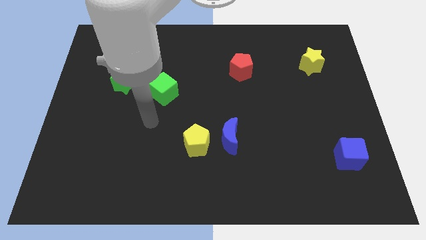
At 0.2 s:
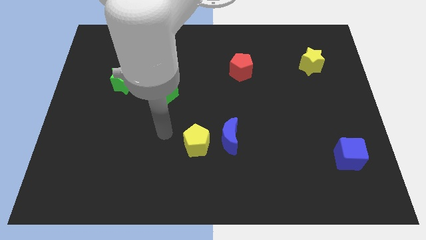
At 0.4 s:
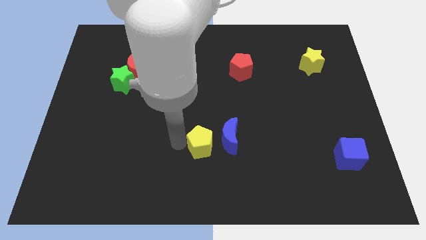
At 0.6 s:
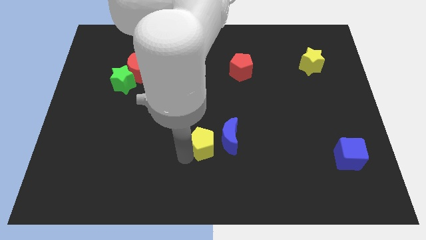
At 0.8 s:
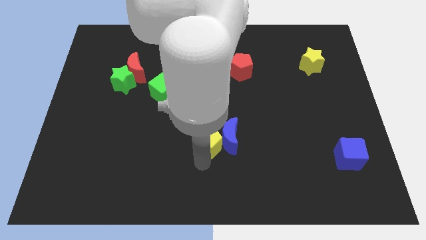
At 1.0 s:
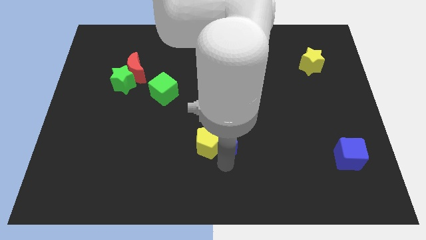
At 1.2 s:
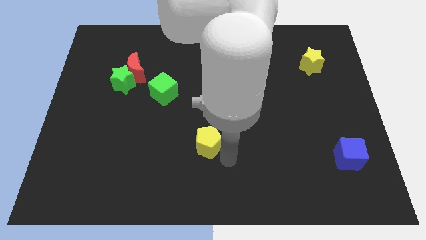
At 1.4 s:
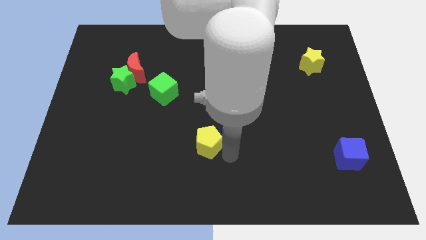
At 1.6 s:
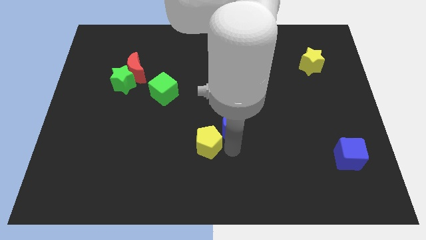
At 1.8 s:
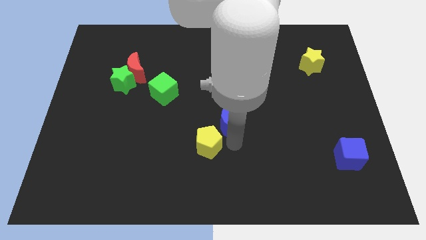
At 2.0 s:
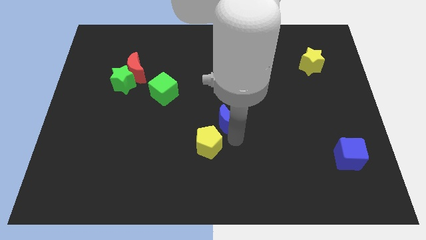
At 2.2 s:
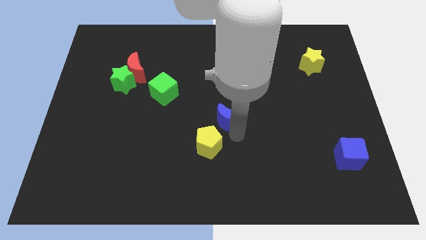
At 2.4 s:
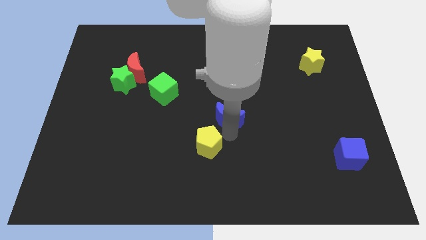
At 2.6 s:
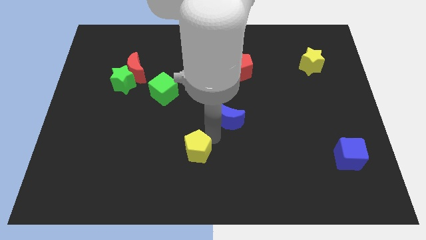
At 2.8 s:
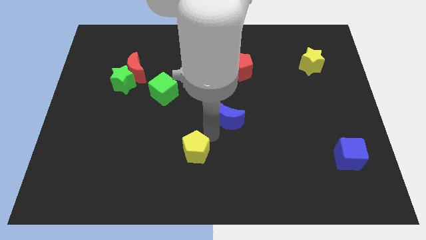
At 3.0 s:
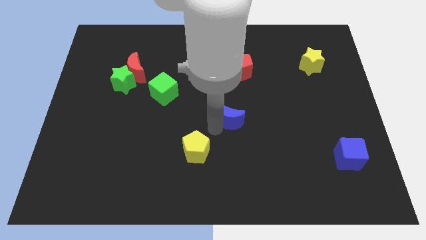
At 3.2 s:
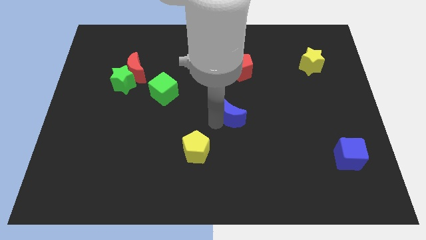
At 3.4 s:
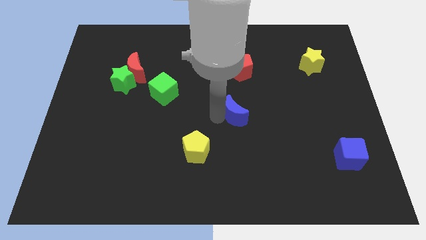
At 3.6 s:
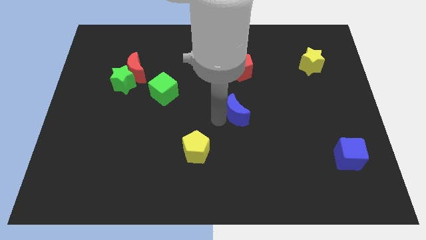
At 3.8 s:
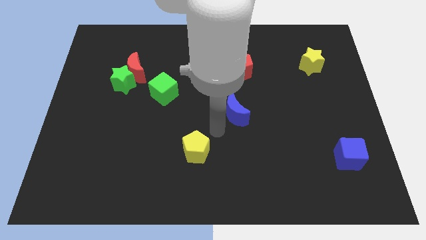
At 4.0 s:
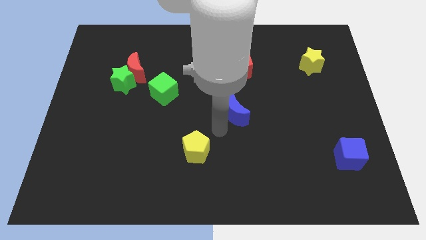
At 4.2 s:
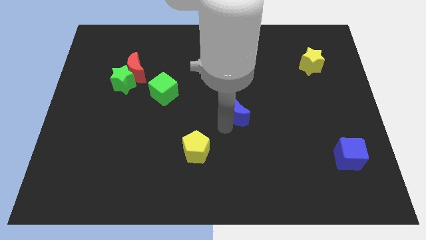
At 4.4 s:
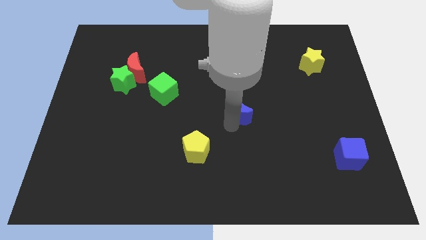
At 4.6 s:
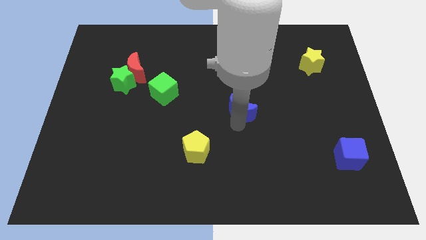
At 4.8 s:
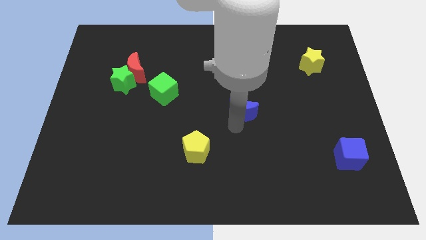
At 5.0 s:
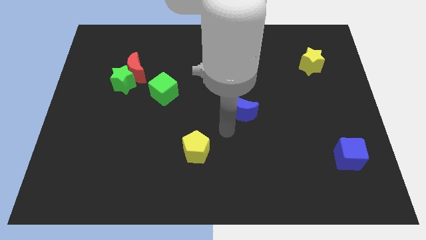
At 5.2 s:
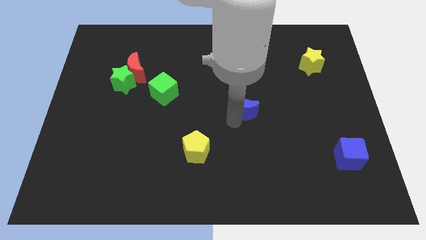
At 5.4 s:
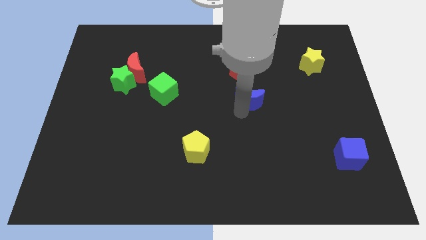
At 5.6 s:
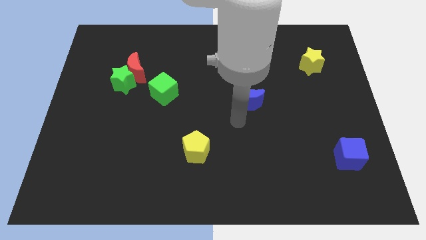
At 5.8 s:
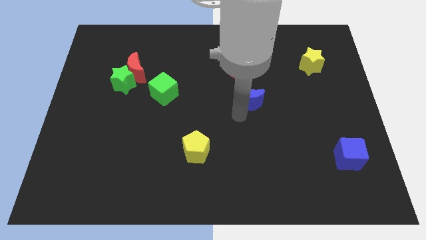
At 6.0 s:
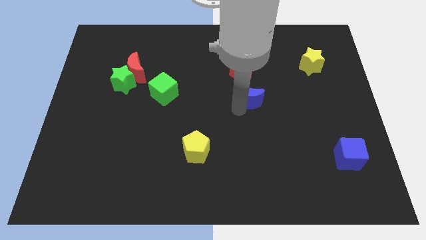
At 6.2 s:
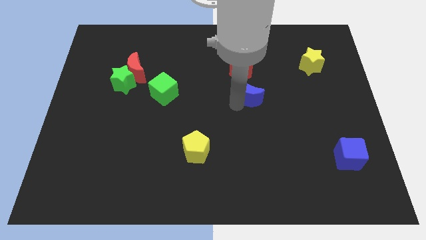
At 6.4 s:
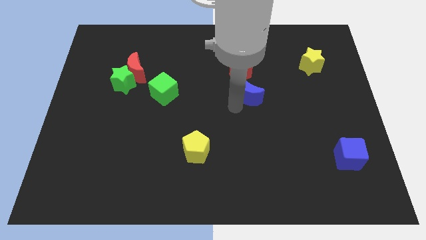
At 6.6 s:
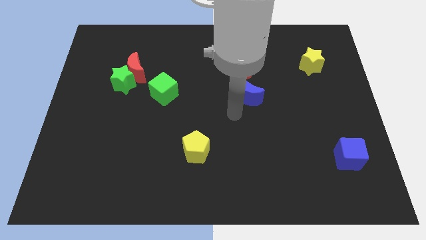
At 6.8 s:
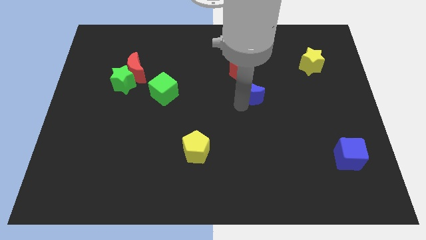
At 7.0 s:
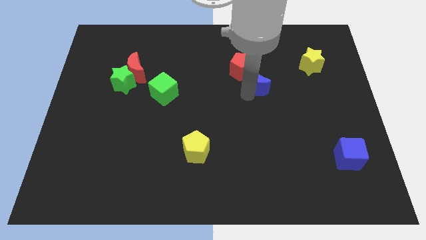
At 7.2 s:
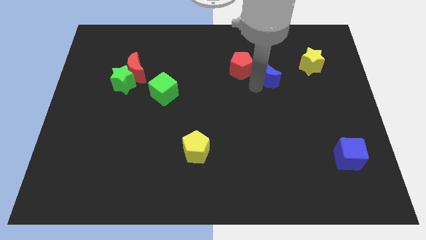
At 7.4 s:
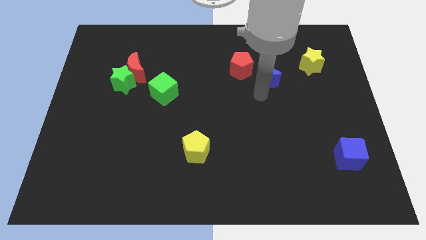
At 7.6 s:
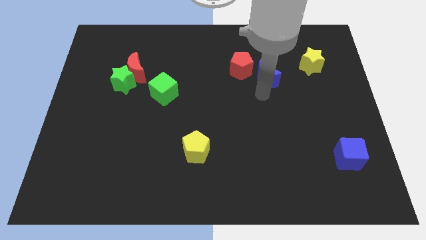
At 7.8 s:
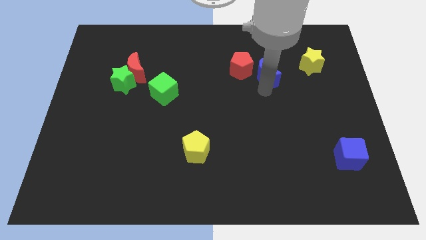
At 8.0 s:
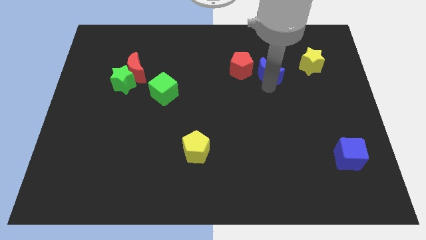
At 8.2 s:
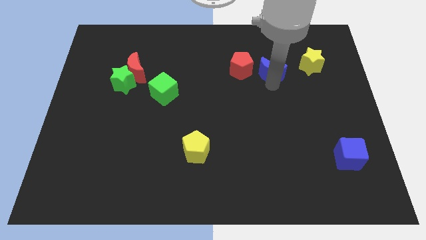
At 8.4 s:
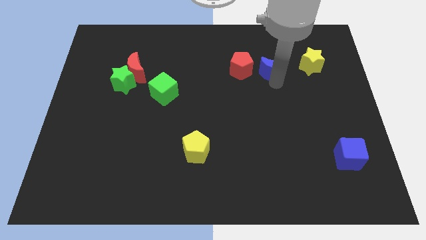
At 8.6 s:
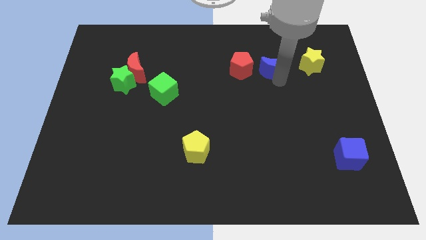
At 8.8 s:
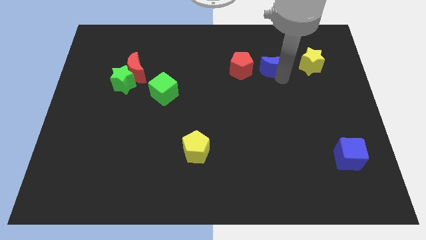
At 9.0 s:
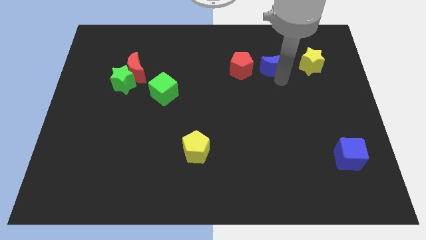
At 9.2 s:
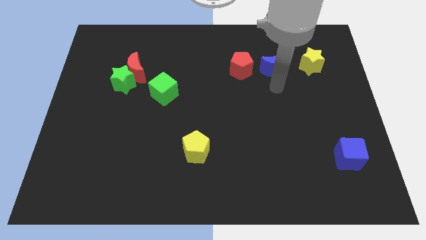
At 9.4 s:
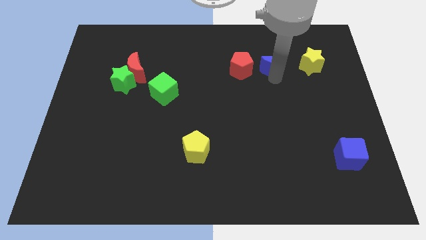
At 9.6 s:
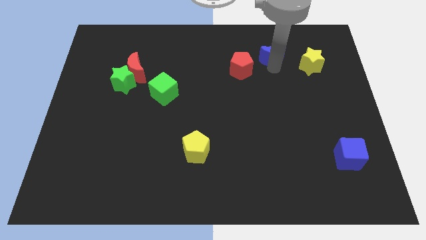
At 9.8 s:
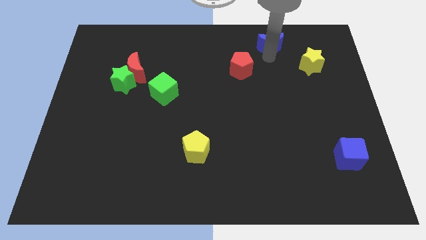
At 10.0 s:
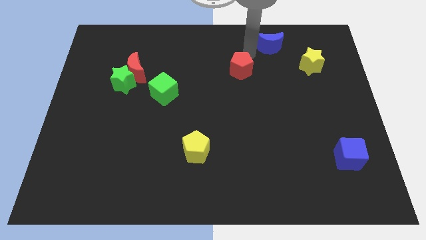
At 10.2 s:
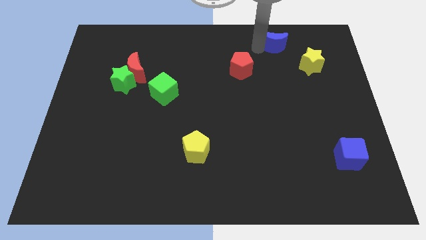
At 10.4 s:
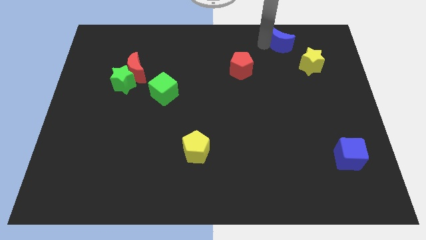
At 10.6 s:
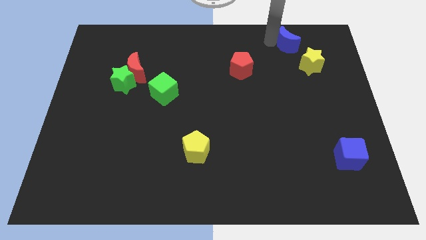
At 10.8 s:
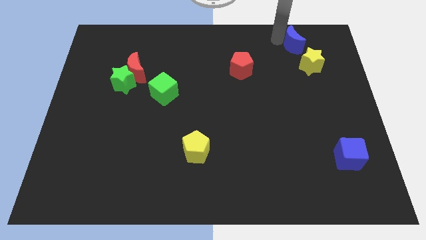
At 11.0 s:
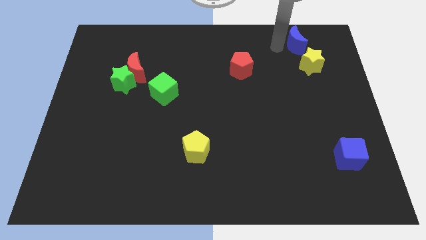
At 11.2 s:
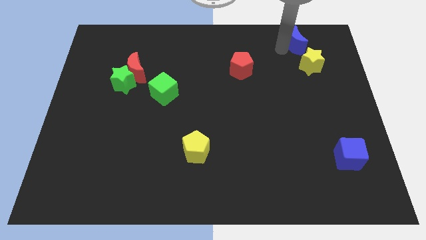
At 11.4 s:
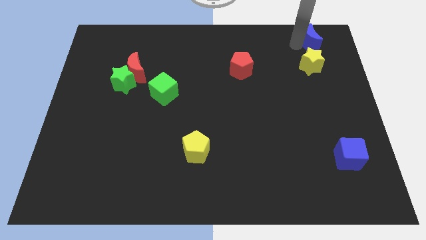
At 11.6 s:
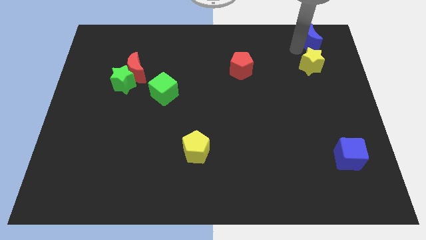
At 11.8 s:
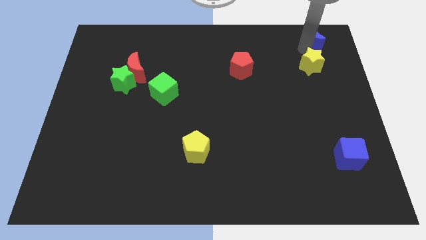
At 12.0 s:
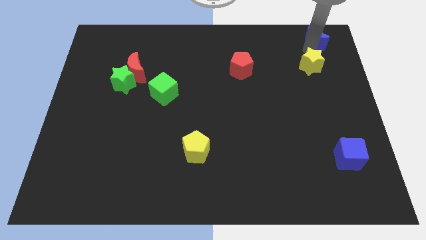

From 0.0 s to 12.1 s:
slide the blue moon to the top right of the board
